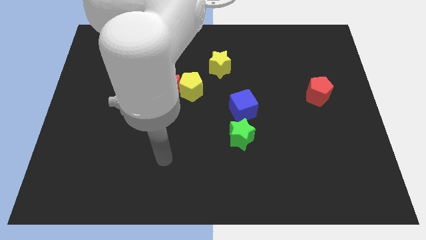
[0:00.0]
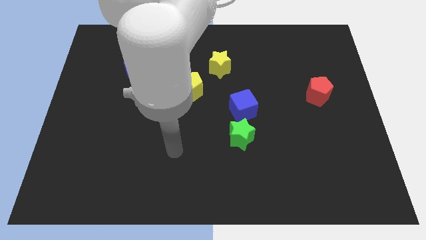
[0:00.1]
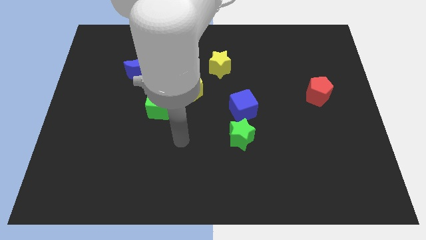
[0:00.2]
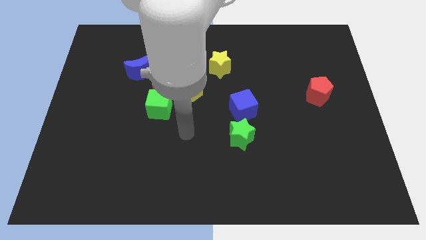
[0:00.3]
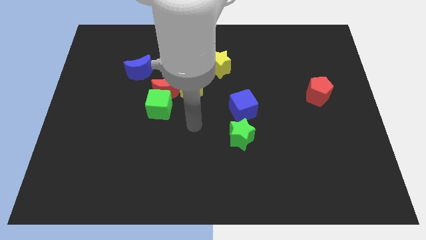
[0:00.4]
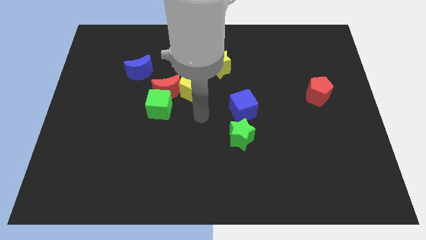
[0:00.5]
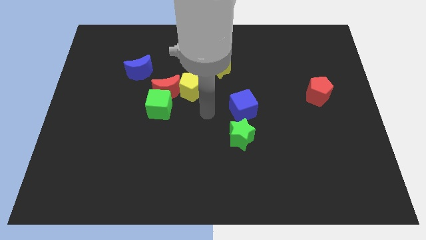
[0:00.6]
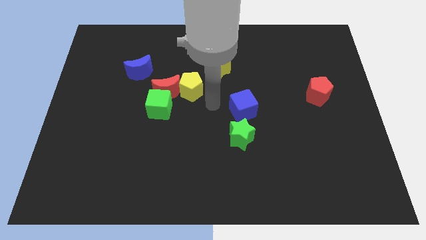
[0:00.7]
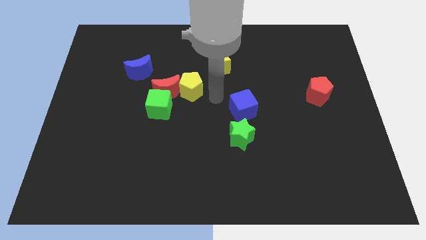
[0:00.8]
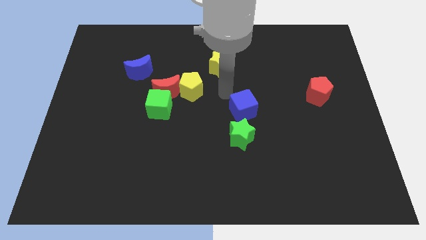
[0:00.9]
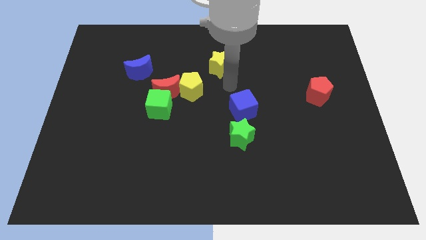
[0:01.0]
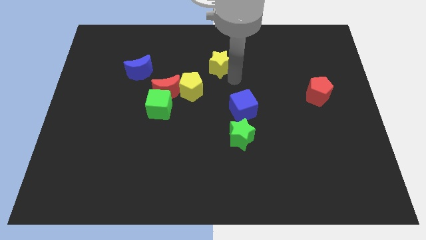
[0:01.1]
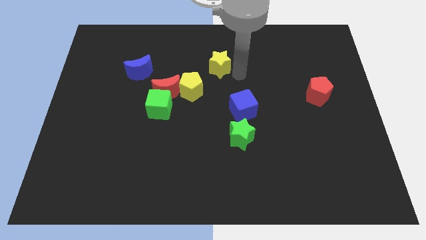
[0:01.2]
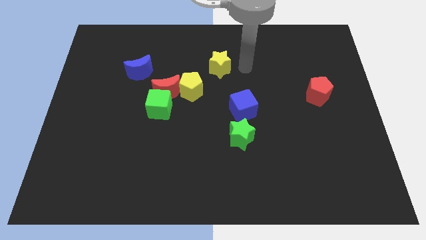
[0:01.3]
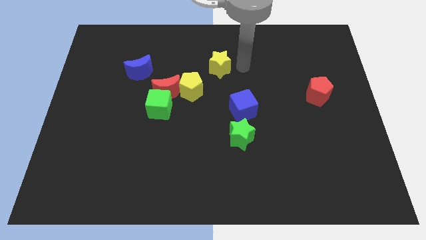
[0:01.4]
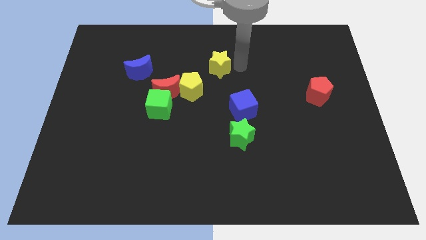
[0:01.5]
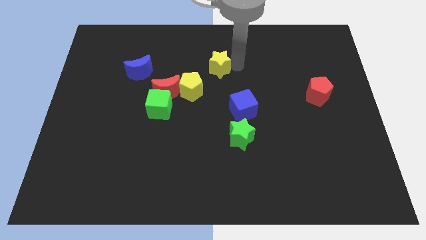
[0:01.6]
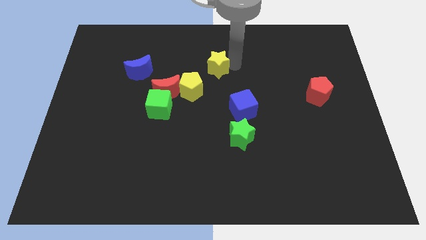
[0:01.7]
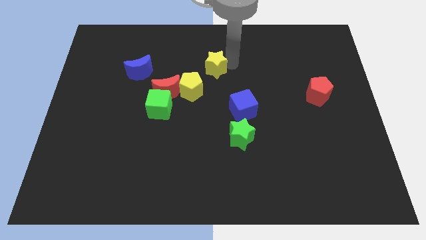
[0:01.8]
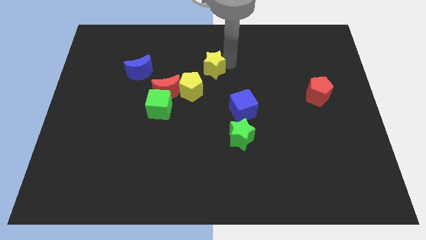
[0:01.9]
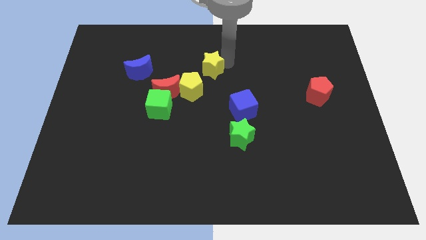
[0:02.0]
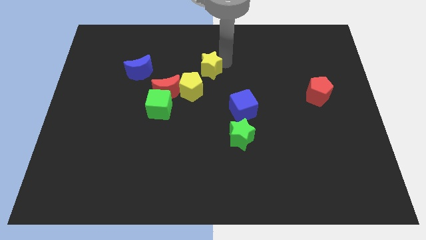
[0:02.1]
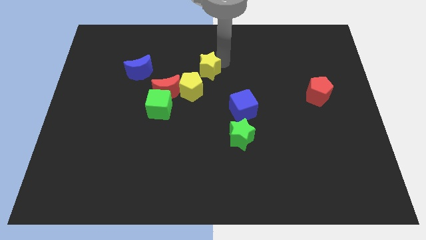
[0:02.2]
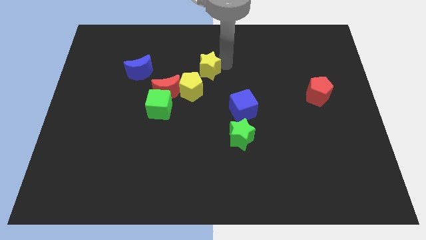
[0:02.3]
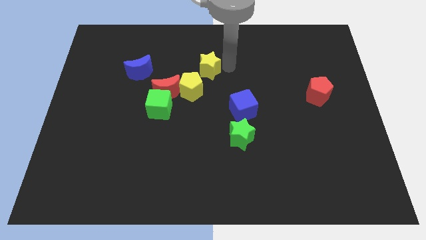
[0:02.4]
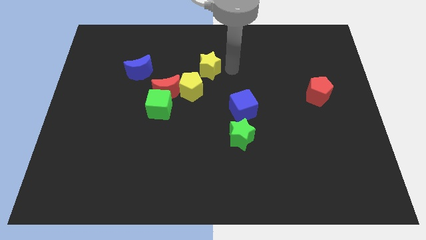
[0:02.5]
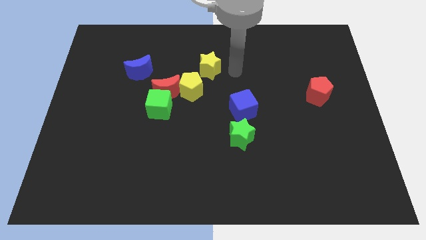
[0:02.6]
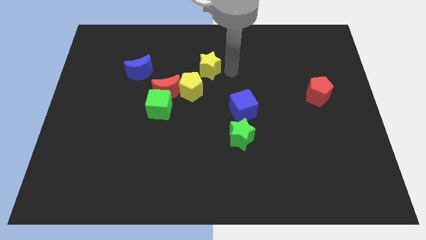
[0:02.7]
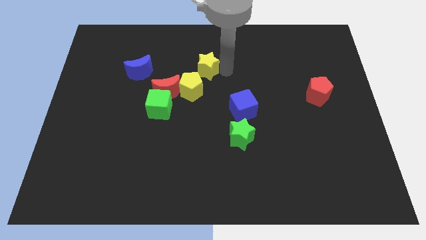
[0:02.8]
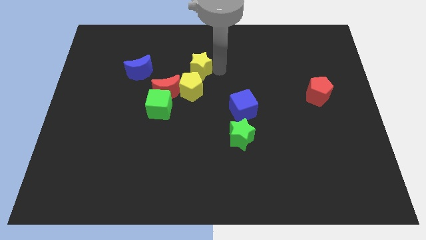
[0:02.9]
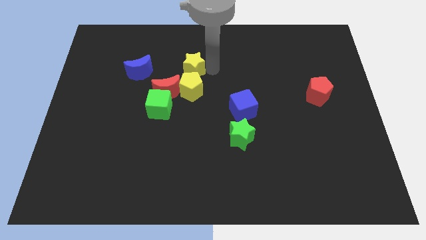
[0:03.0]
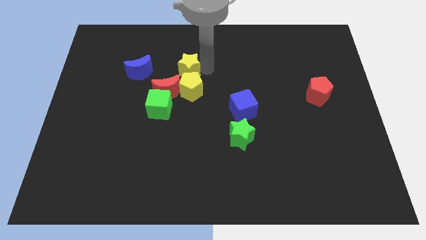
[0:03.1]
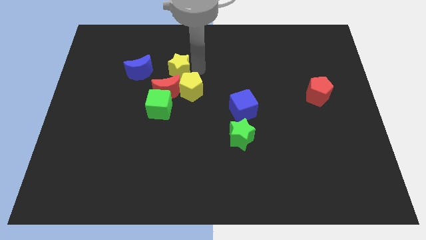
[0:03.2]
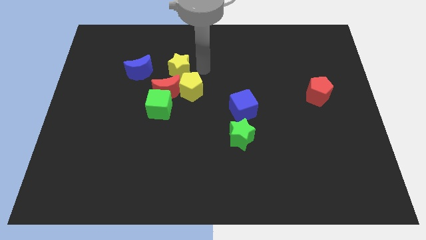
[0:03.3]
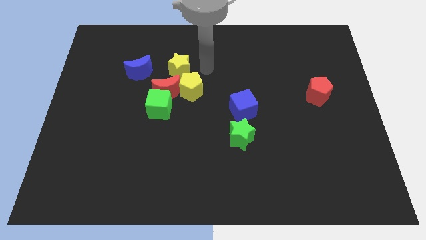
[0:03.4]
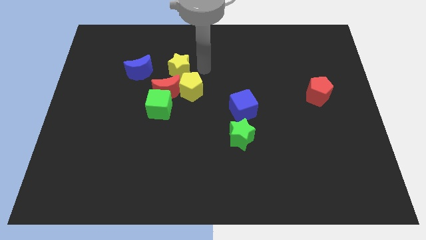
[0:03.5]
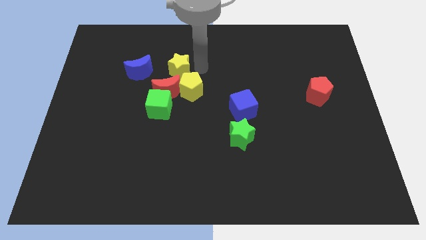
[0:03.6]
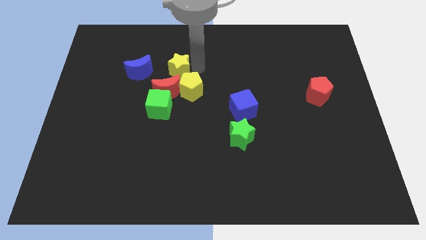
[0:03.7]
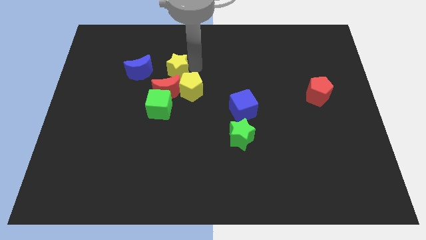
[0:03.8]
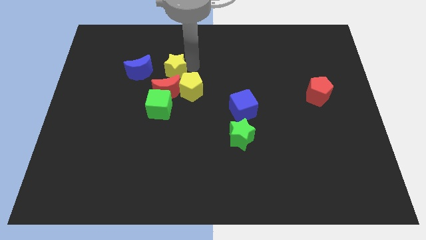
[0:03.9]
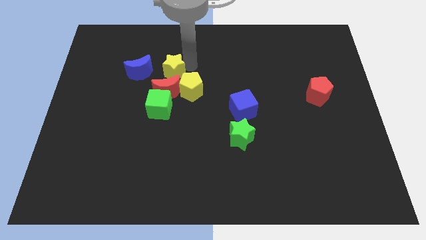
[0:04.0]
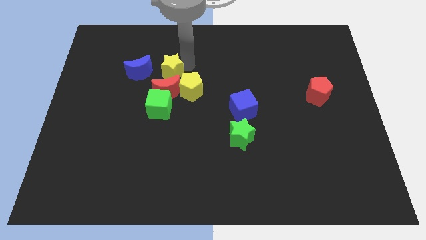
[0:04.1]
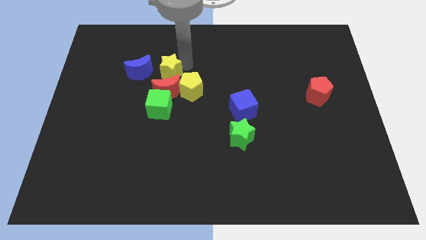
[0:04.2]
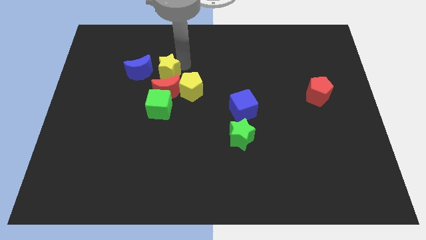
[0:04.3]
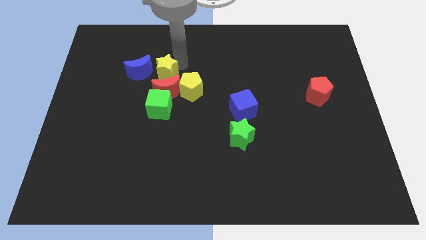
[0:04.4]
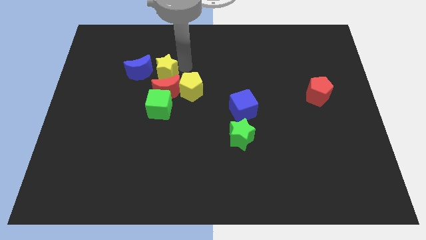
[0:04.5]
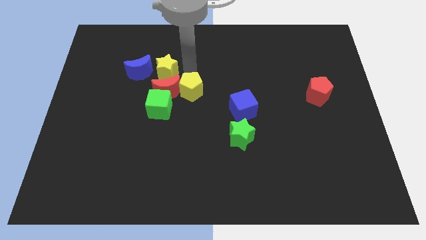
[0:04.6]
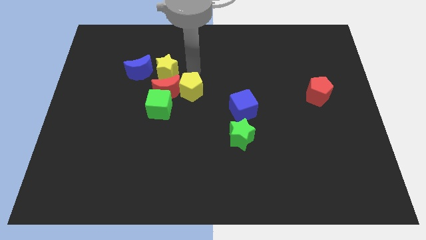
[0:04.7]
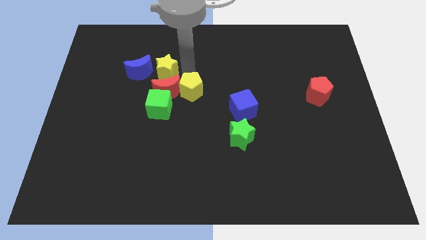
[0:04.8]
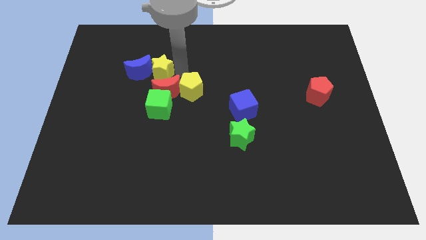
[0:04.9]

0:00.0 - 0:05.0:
push the yellow star next to the blue moon

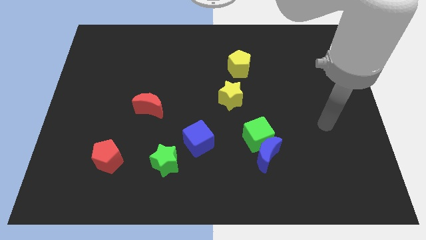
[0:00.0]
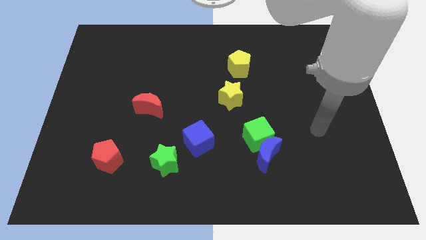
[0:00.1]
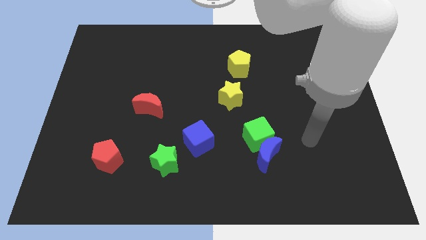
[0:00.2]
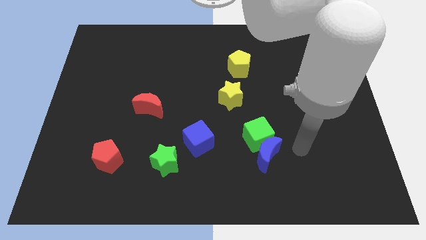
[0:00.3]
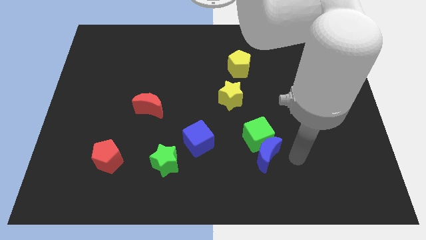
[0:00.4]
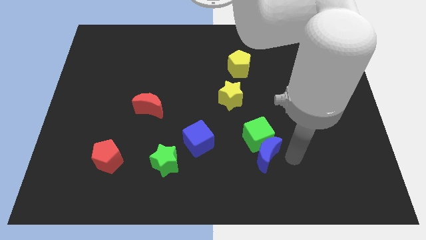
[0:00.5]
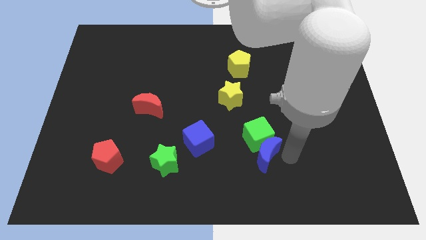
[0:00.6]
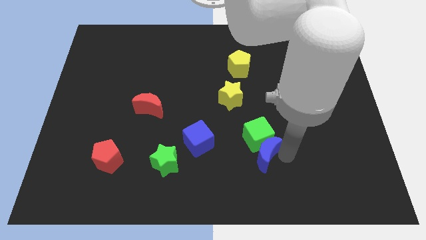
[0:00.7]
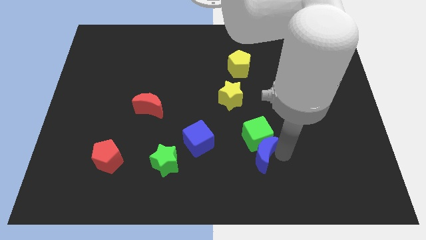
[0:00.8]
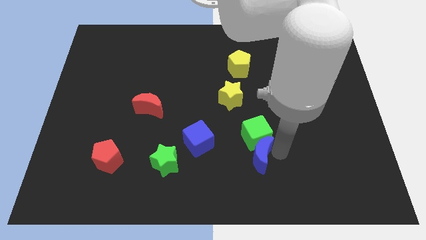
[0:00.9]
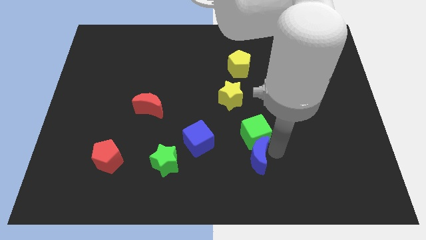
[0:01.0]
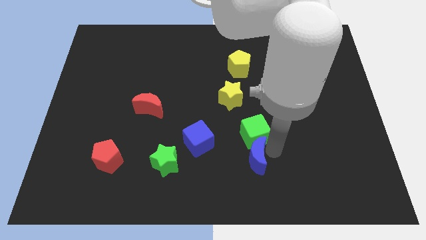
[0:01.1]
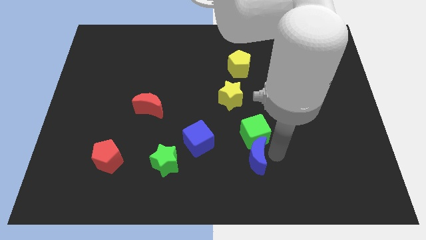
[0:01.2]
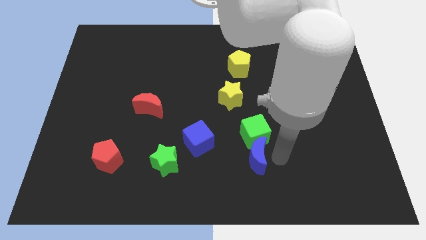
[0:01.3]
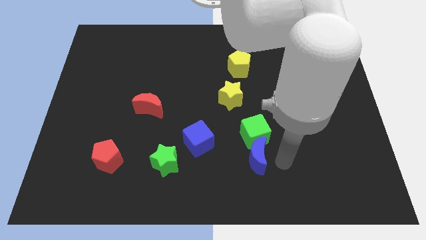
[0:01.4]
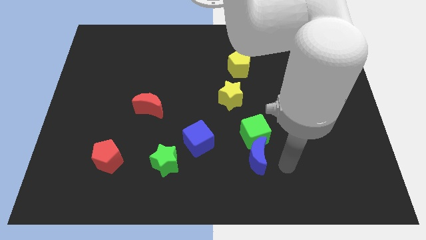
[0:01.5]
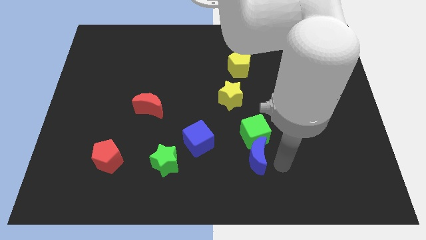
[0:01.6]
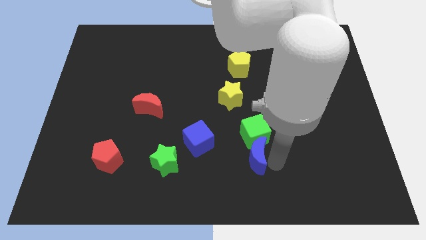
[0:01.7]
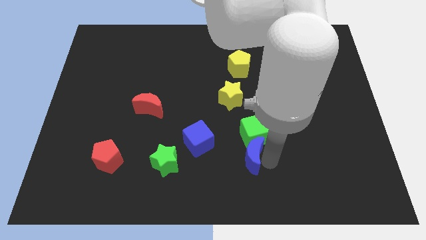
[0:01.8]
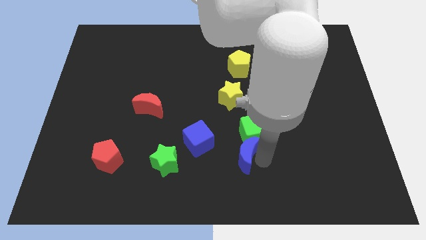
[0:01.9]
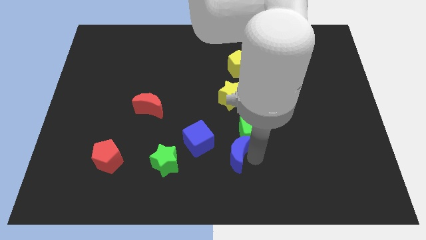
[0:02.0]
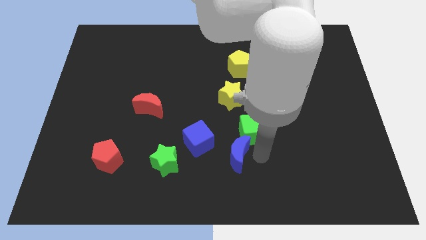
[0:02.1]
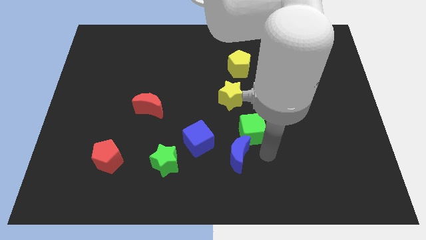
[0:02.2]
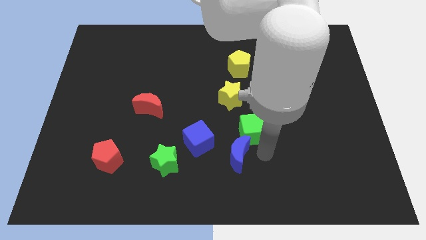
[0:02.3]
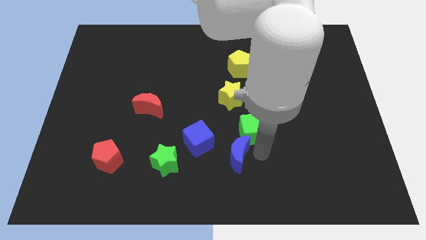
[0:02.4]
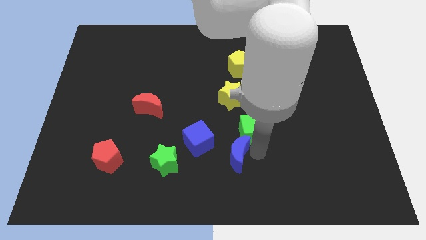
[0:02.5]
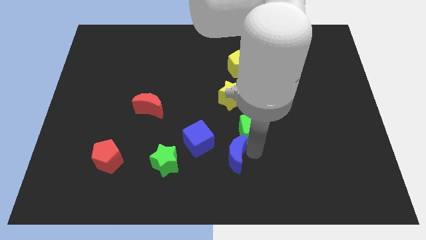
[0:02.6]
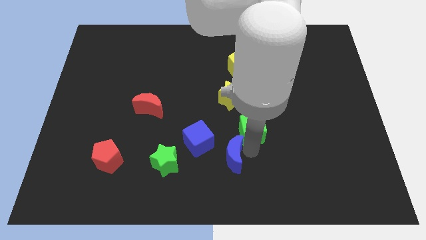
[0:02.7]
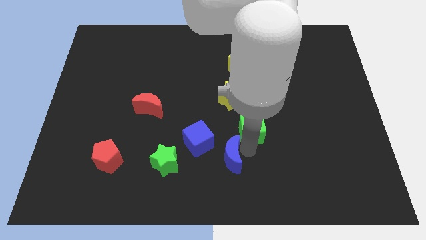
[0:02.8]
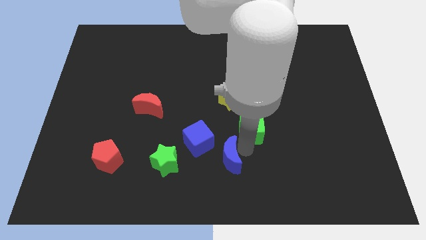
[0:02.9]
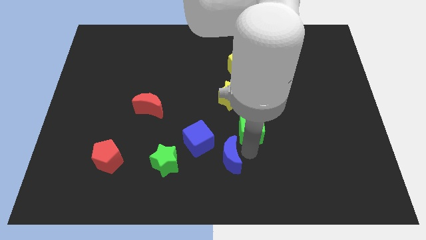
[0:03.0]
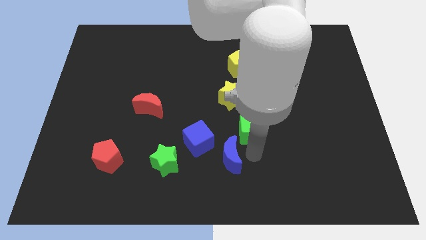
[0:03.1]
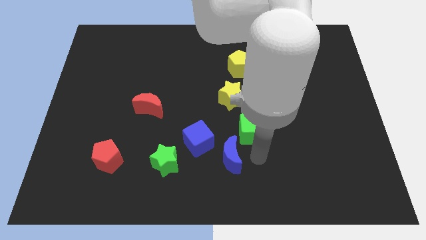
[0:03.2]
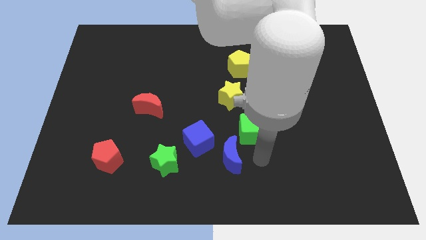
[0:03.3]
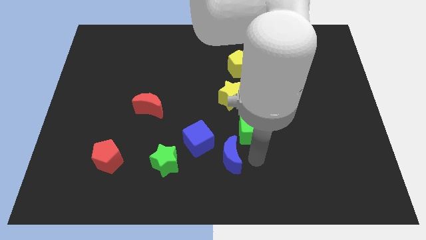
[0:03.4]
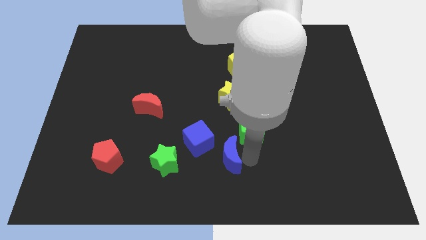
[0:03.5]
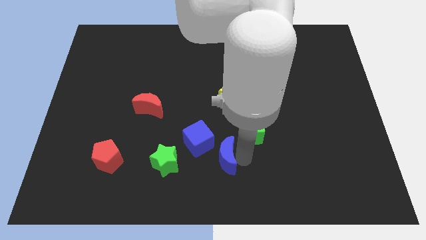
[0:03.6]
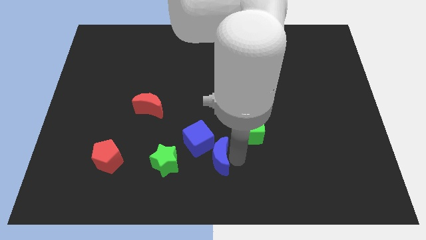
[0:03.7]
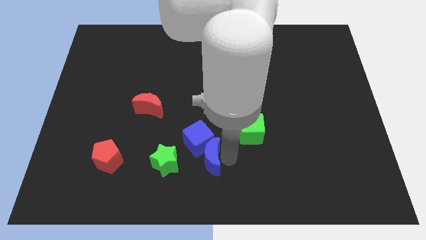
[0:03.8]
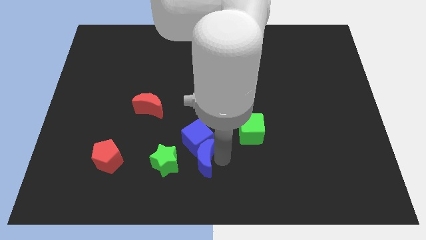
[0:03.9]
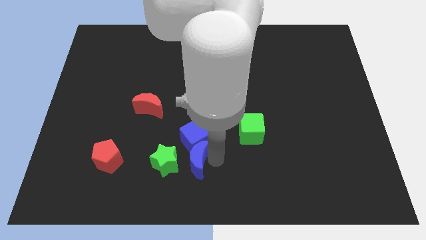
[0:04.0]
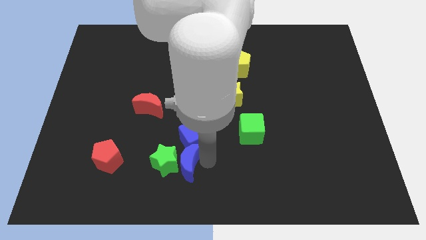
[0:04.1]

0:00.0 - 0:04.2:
move the blue moon next to the green star
